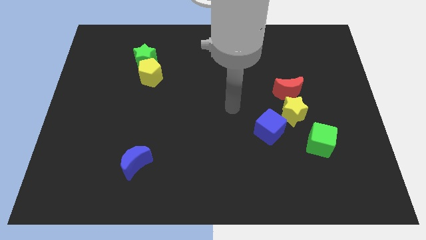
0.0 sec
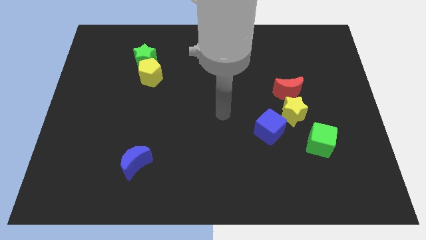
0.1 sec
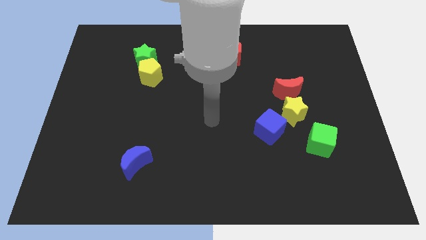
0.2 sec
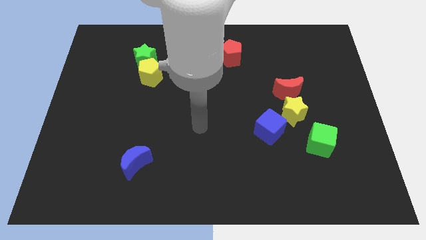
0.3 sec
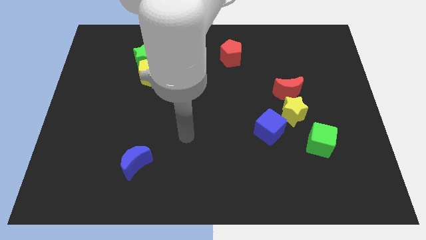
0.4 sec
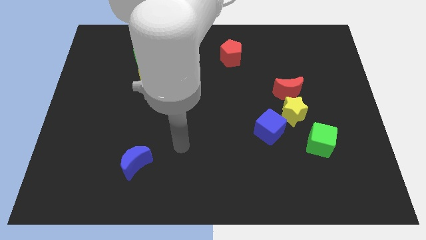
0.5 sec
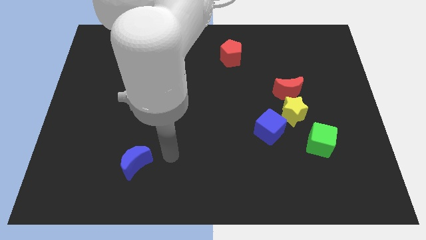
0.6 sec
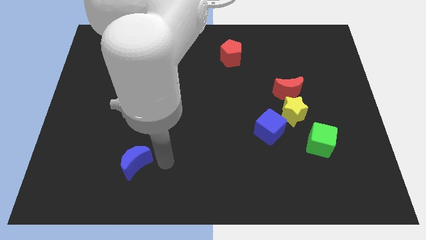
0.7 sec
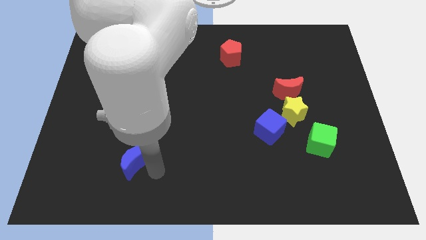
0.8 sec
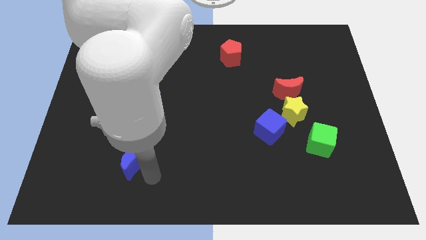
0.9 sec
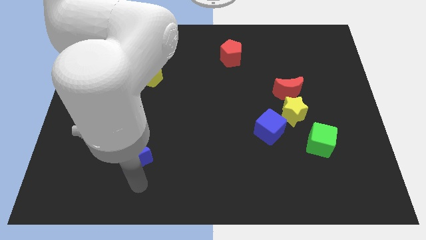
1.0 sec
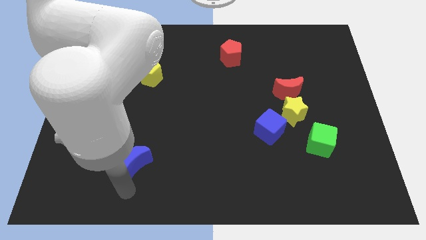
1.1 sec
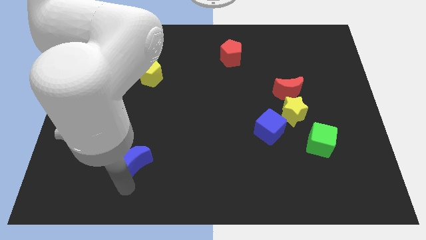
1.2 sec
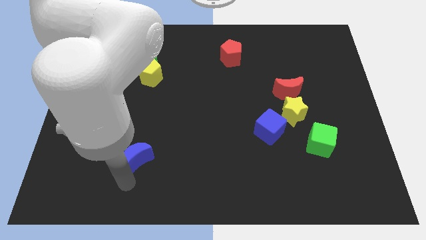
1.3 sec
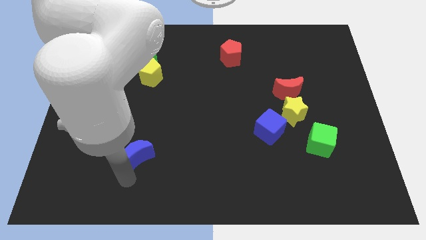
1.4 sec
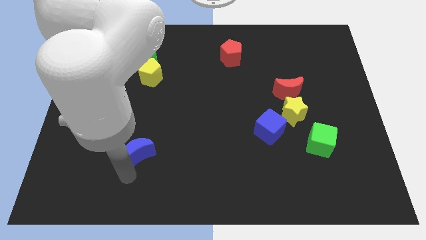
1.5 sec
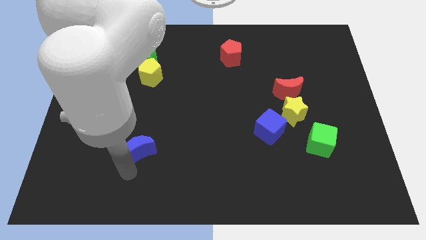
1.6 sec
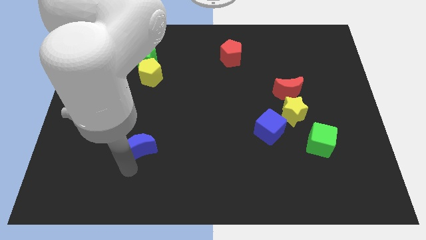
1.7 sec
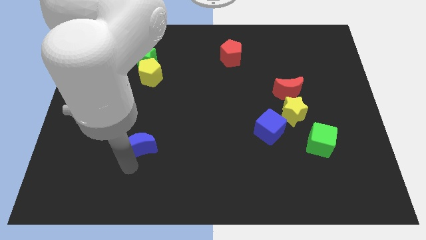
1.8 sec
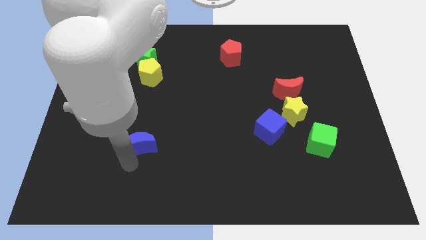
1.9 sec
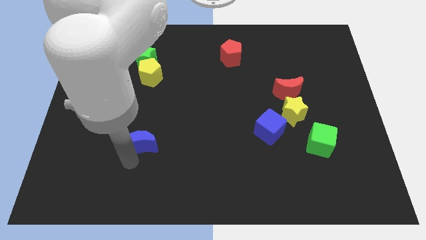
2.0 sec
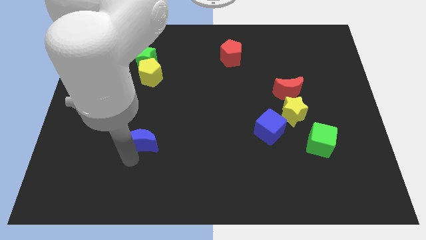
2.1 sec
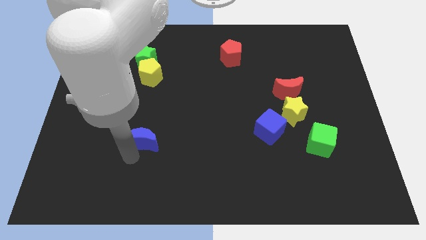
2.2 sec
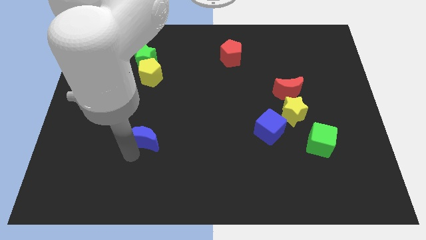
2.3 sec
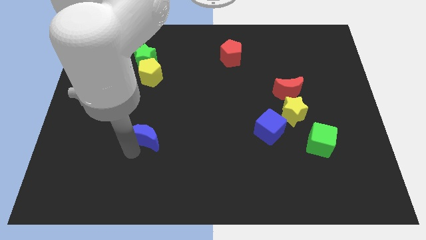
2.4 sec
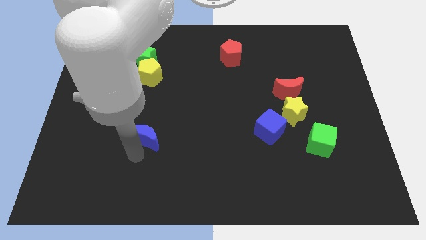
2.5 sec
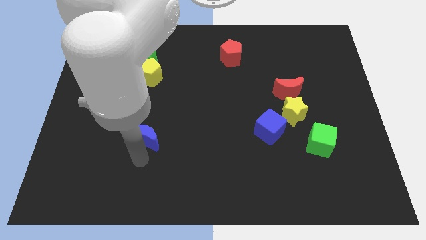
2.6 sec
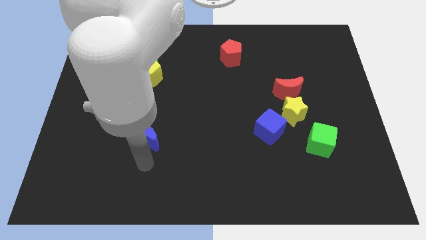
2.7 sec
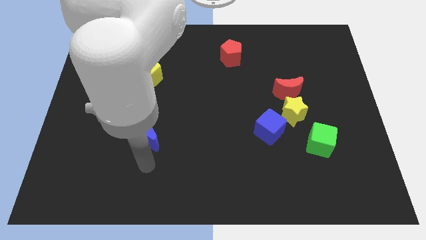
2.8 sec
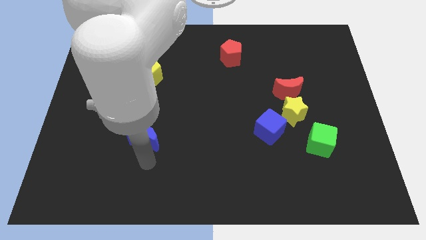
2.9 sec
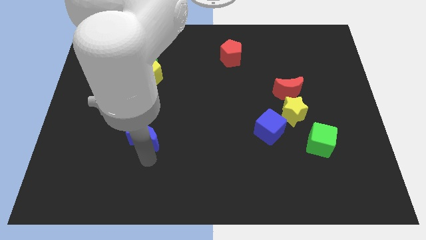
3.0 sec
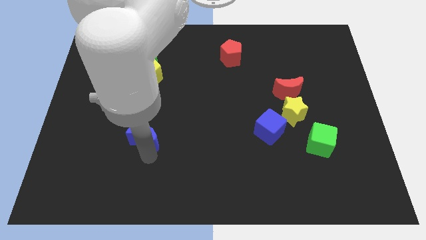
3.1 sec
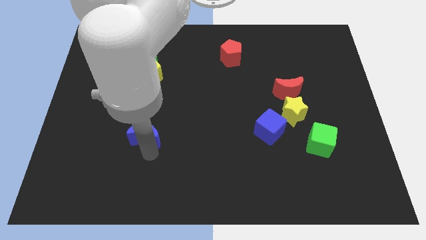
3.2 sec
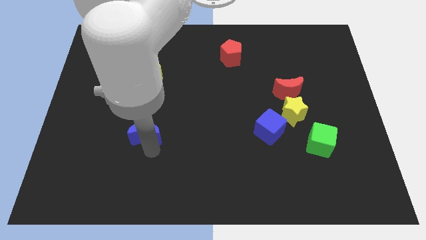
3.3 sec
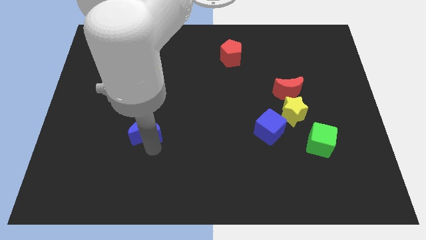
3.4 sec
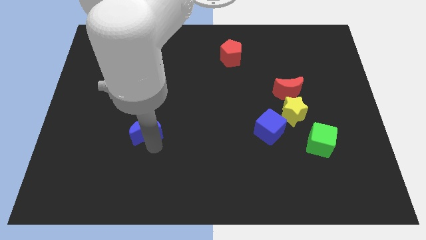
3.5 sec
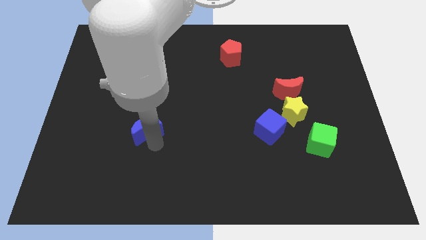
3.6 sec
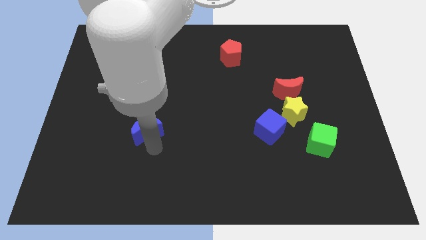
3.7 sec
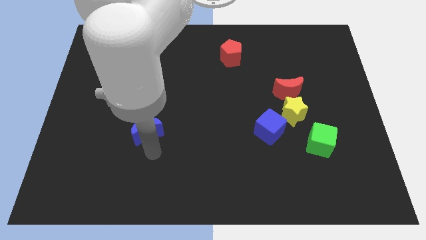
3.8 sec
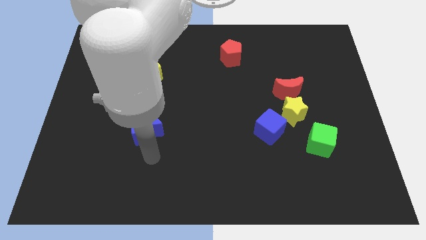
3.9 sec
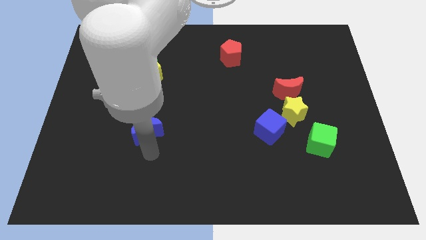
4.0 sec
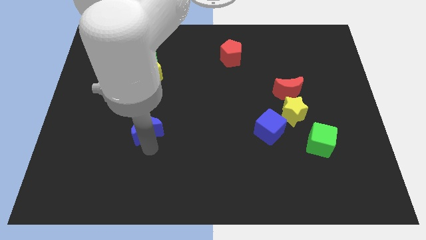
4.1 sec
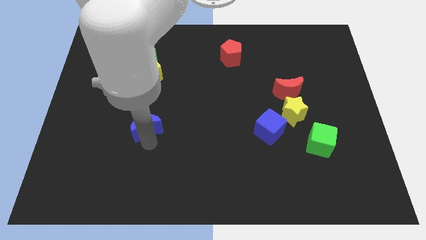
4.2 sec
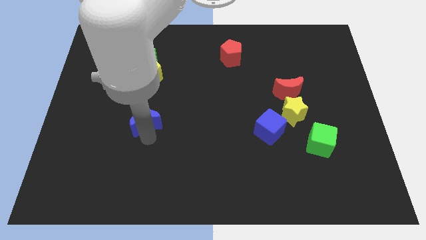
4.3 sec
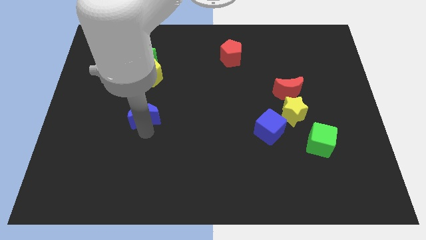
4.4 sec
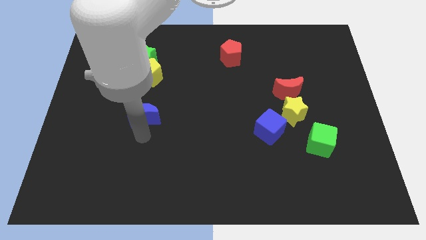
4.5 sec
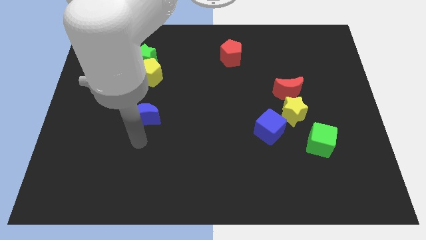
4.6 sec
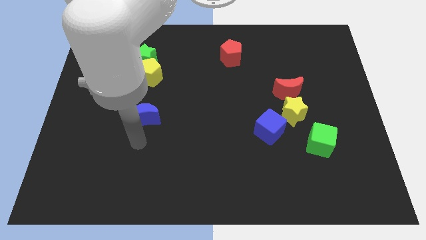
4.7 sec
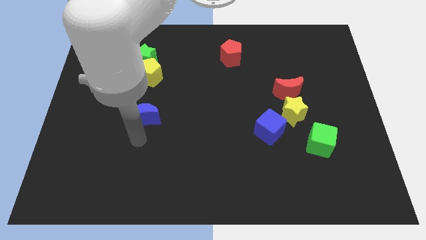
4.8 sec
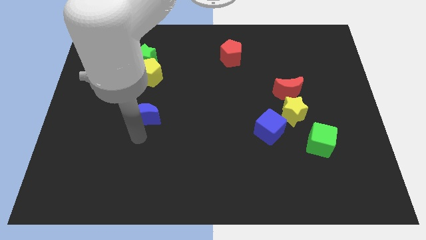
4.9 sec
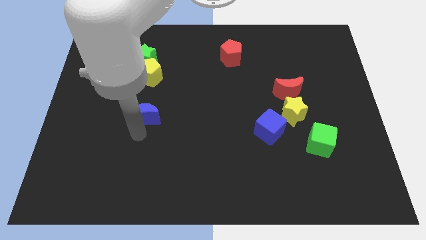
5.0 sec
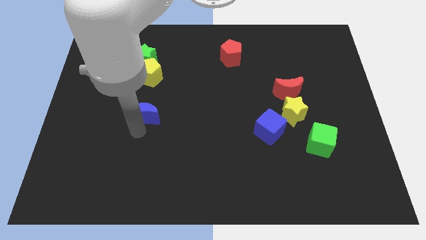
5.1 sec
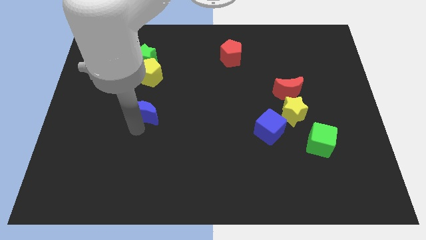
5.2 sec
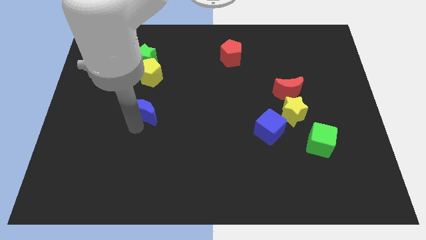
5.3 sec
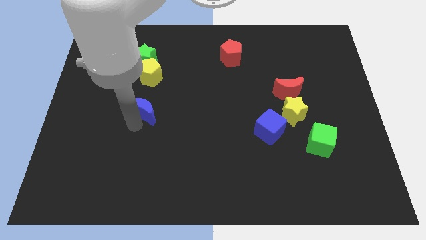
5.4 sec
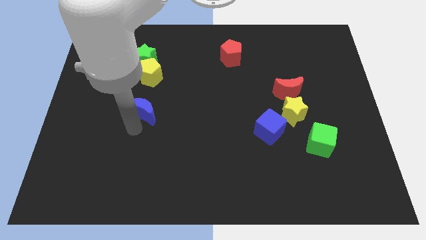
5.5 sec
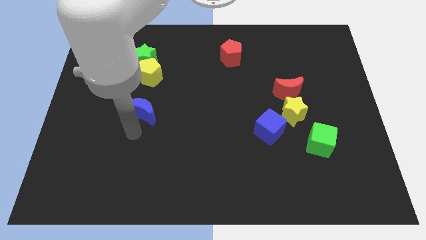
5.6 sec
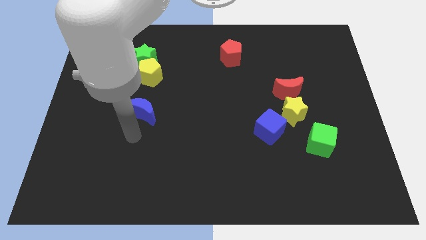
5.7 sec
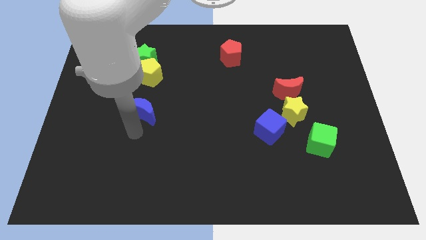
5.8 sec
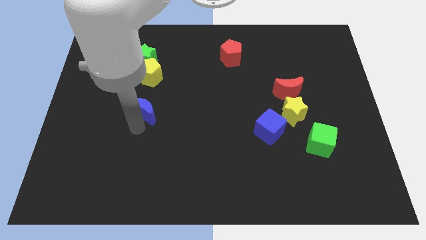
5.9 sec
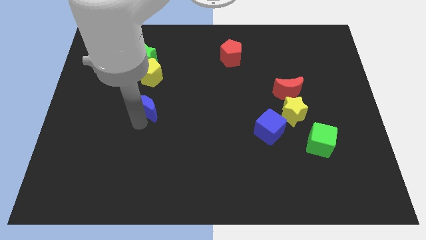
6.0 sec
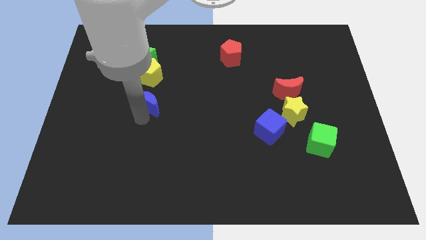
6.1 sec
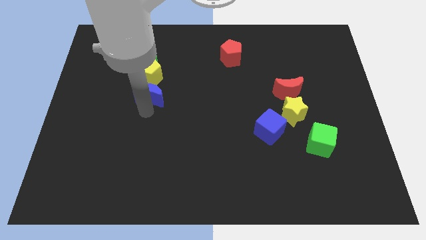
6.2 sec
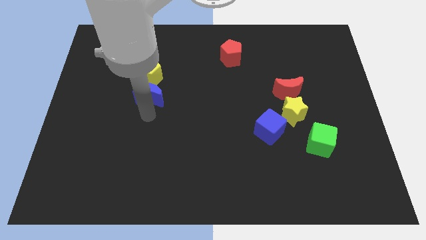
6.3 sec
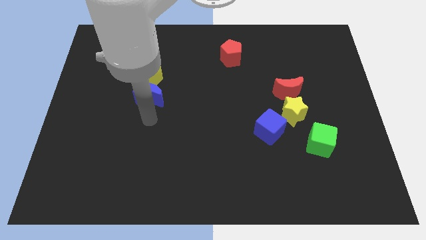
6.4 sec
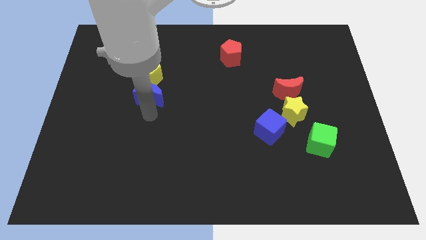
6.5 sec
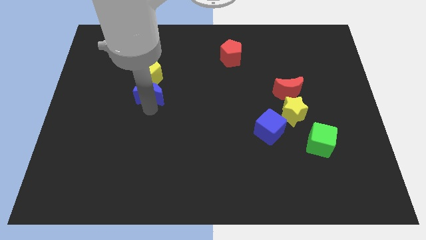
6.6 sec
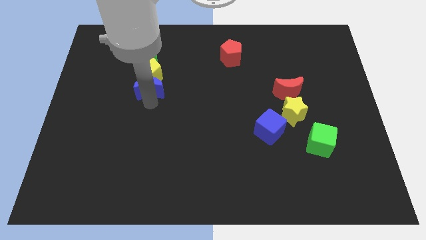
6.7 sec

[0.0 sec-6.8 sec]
slide the blue moon close to the yellow pentagon
